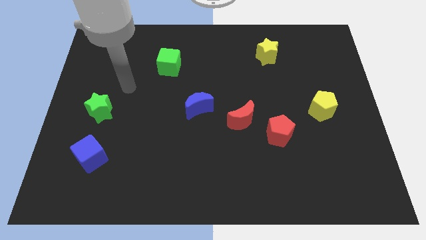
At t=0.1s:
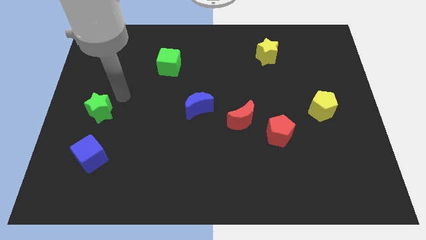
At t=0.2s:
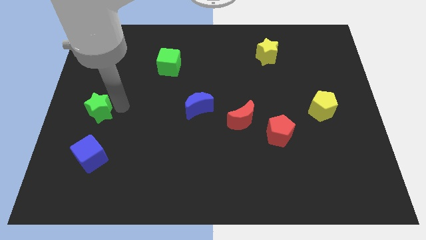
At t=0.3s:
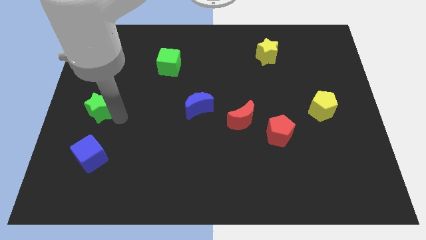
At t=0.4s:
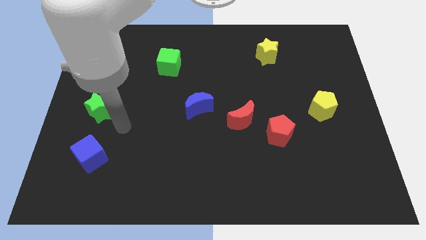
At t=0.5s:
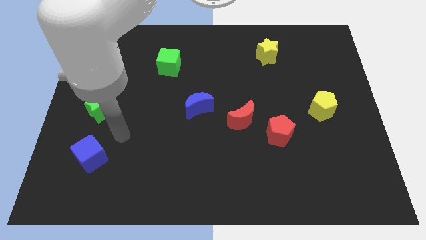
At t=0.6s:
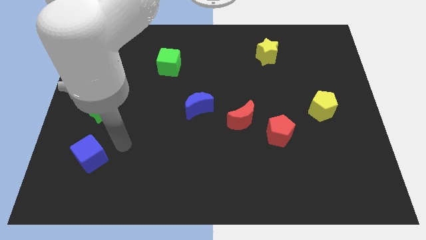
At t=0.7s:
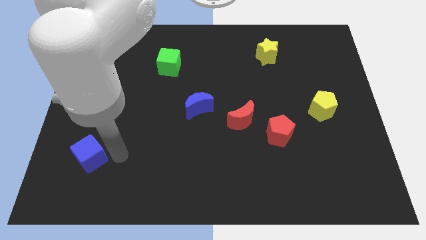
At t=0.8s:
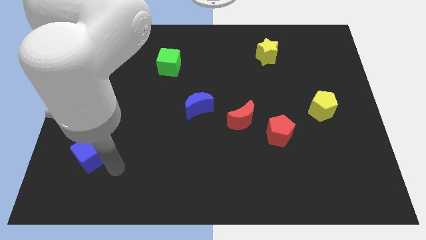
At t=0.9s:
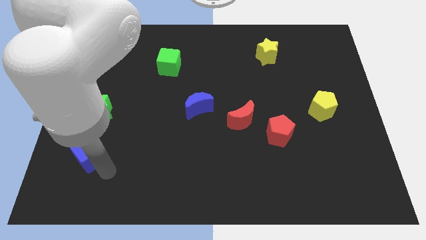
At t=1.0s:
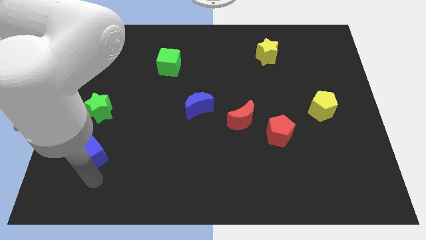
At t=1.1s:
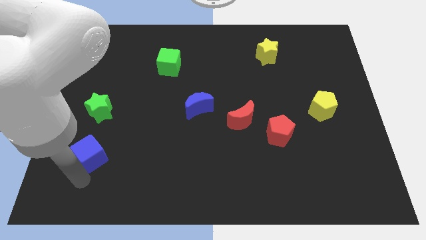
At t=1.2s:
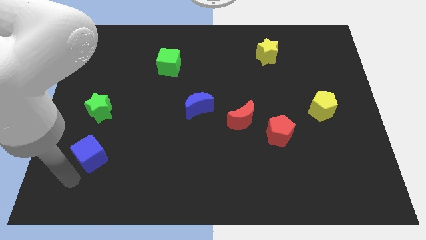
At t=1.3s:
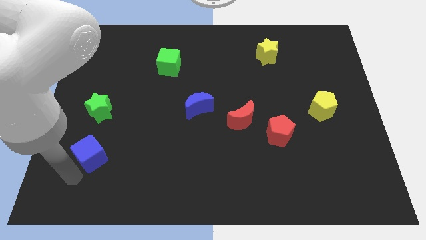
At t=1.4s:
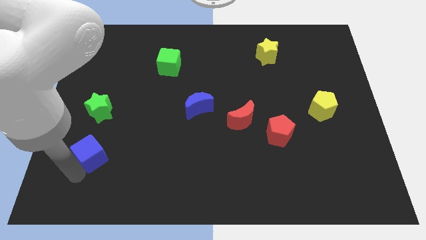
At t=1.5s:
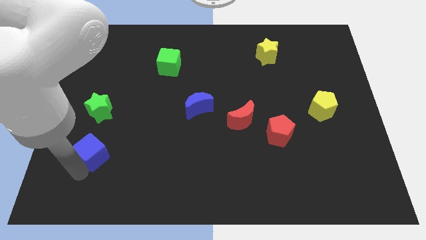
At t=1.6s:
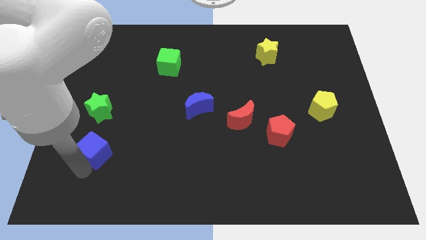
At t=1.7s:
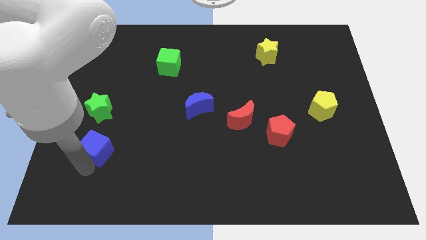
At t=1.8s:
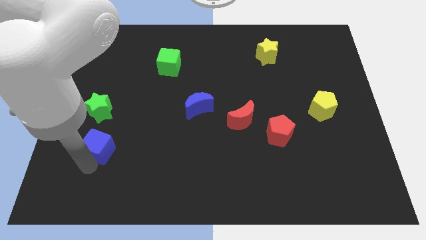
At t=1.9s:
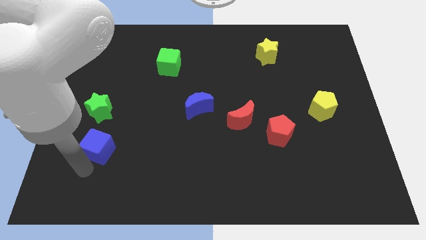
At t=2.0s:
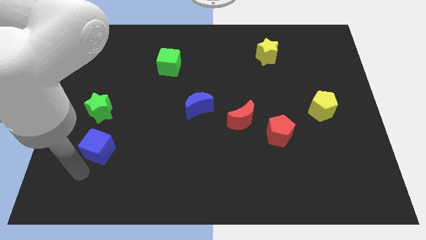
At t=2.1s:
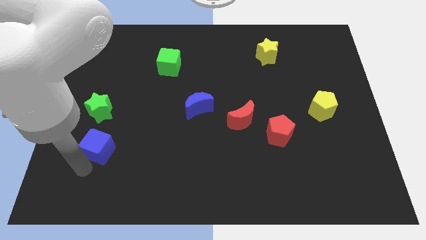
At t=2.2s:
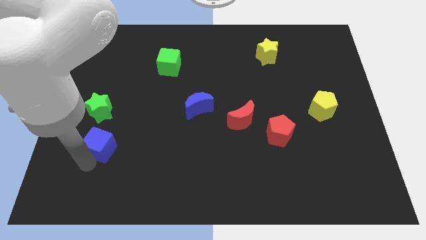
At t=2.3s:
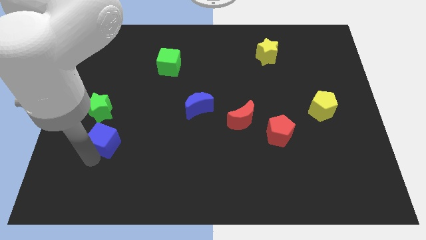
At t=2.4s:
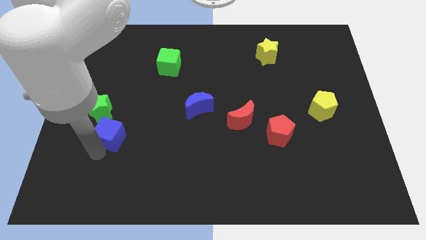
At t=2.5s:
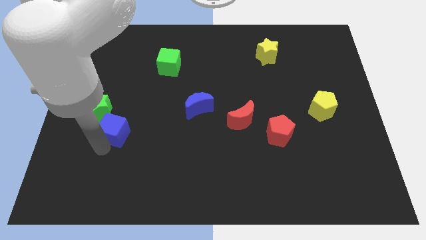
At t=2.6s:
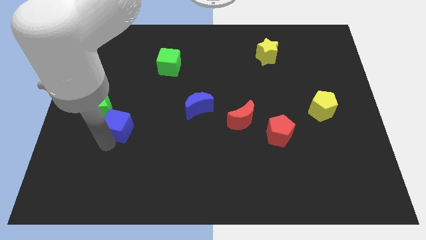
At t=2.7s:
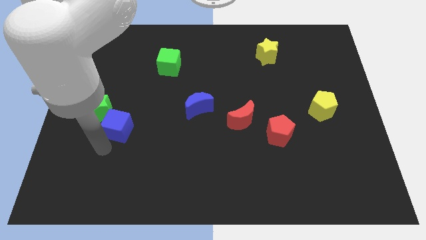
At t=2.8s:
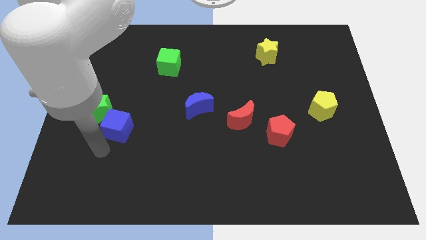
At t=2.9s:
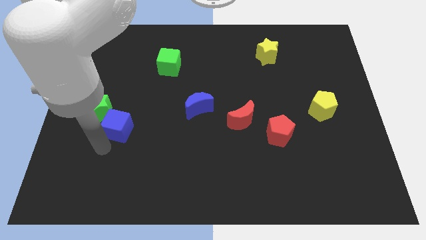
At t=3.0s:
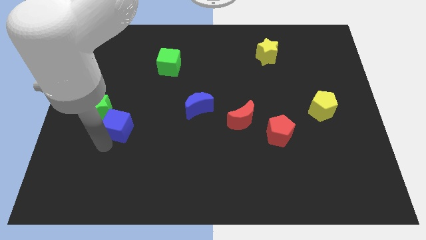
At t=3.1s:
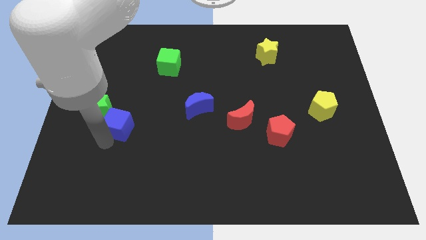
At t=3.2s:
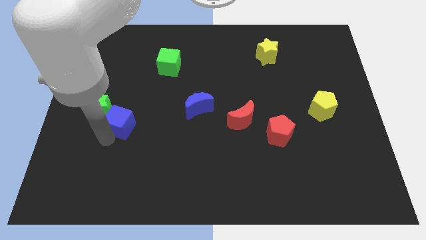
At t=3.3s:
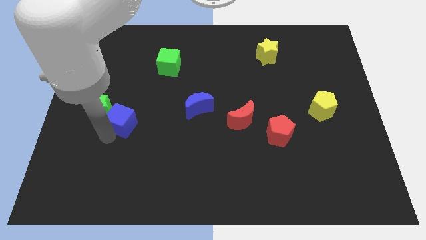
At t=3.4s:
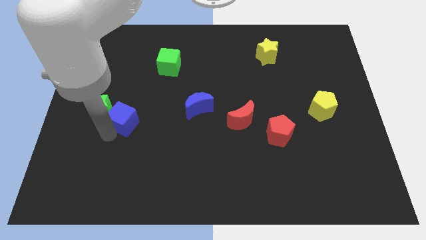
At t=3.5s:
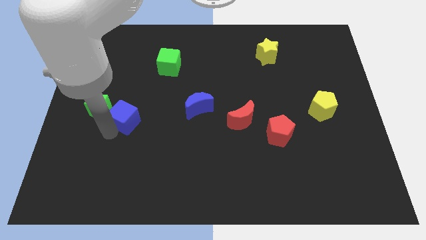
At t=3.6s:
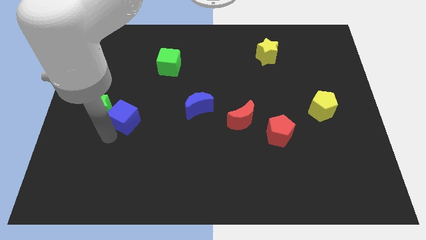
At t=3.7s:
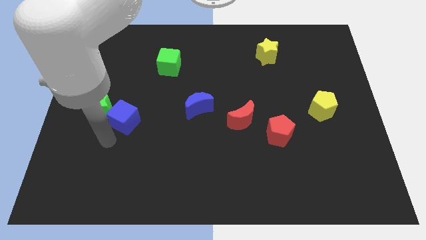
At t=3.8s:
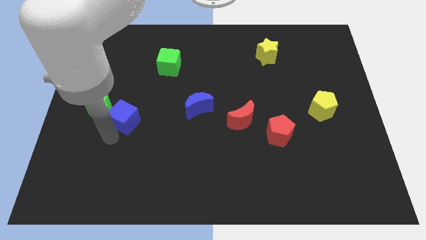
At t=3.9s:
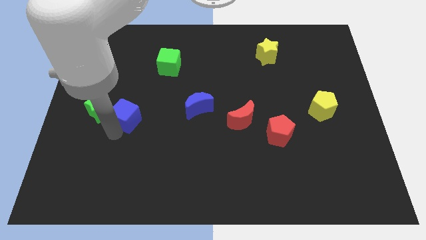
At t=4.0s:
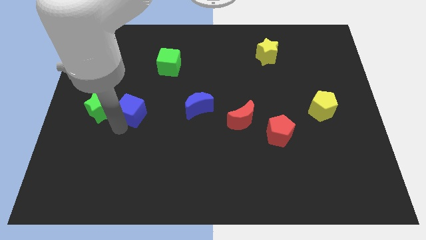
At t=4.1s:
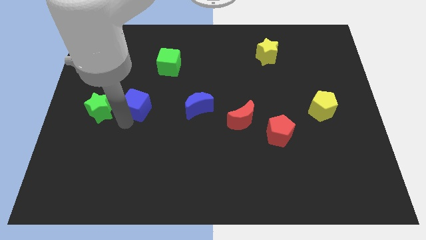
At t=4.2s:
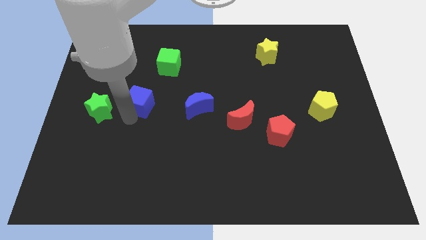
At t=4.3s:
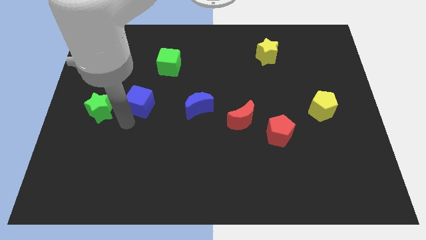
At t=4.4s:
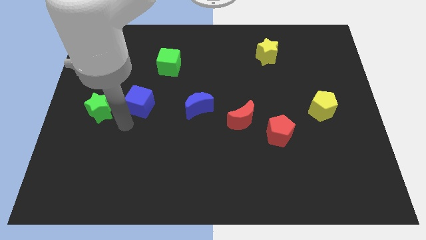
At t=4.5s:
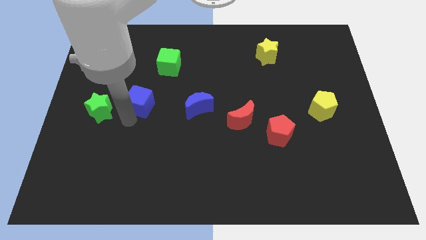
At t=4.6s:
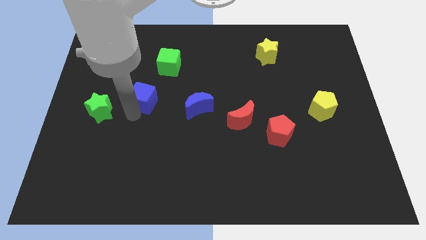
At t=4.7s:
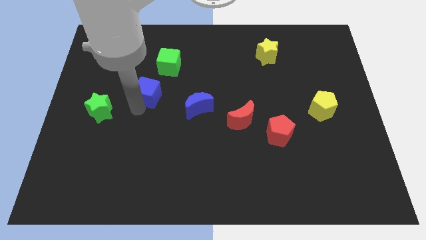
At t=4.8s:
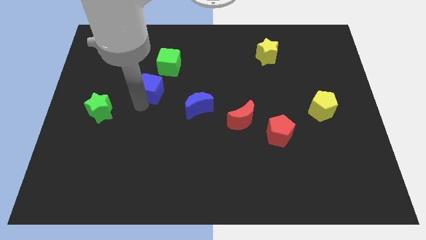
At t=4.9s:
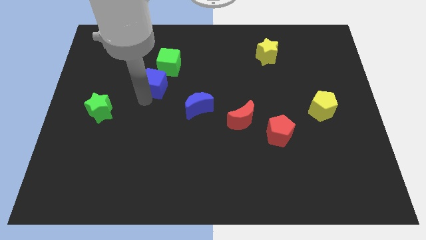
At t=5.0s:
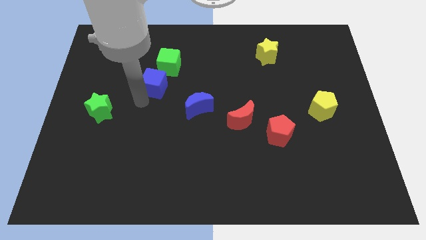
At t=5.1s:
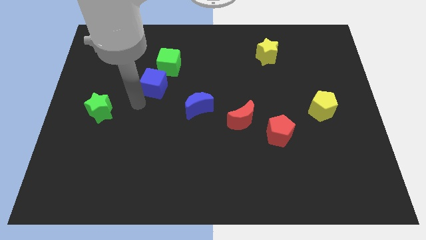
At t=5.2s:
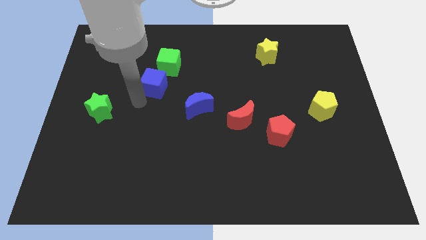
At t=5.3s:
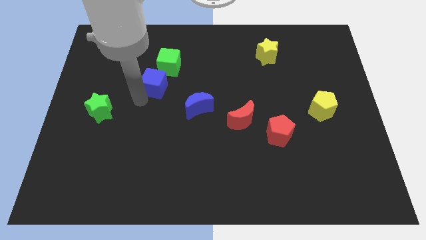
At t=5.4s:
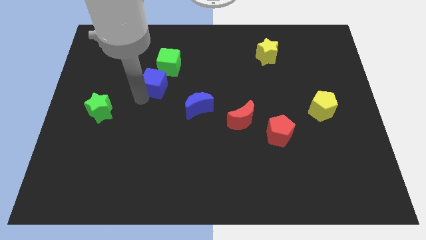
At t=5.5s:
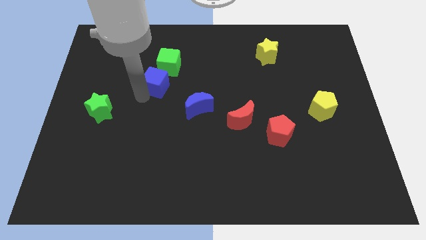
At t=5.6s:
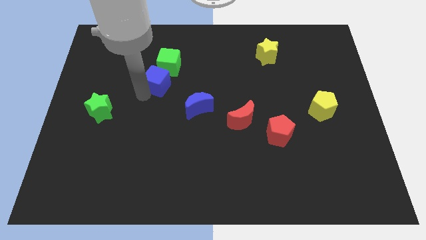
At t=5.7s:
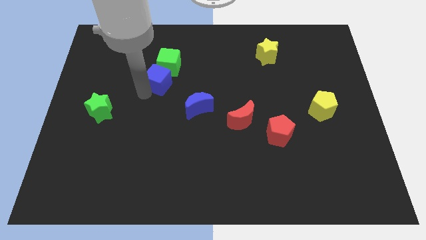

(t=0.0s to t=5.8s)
move the blue cube towards the green cube

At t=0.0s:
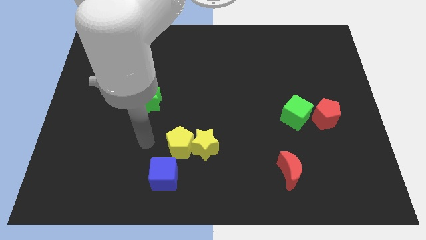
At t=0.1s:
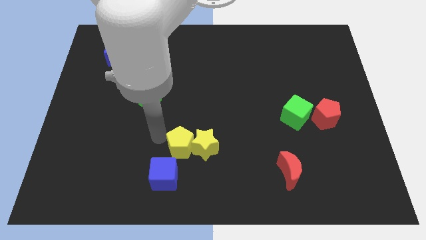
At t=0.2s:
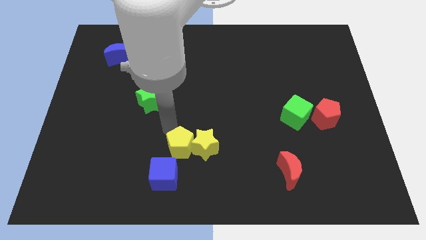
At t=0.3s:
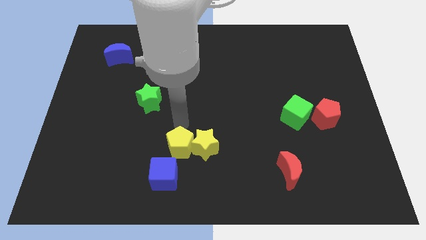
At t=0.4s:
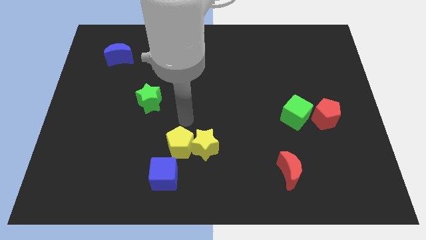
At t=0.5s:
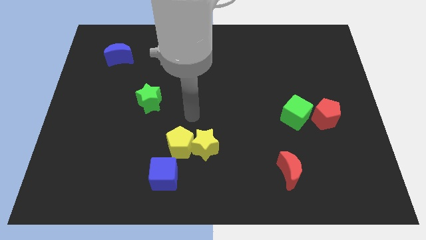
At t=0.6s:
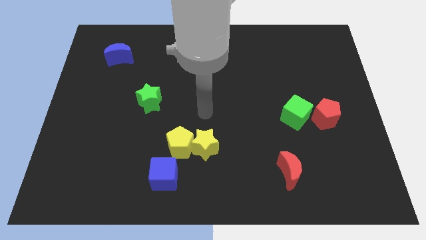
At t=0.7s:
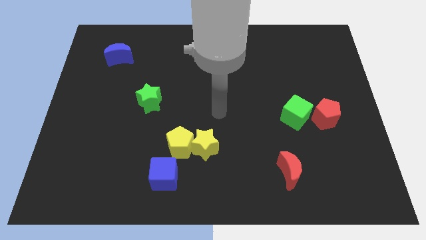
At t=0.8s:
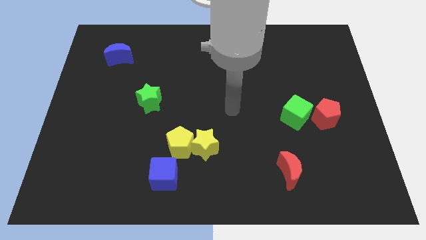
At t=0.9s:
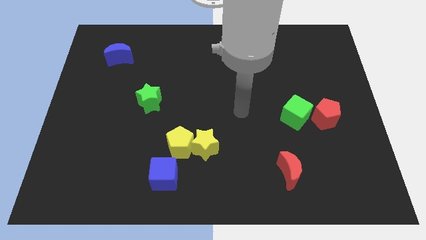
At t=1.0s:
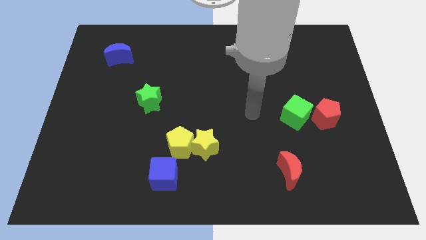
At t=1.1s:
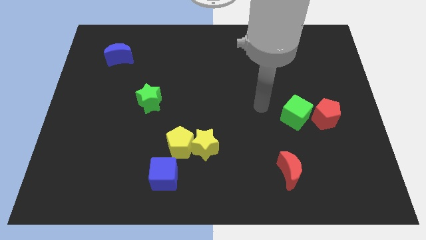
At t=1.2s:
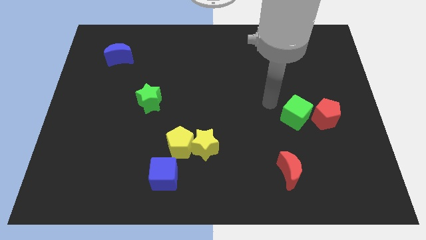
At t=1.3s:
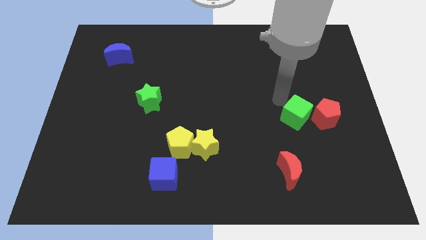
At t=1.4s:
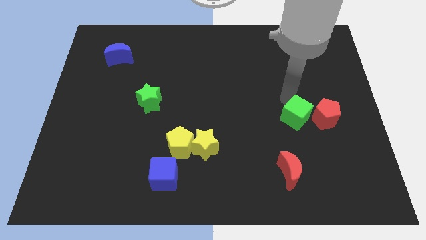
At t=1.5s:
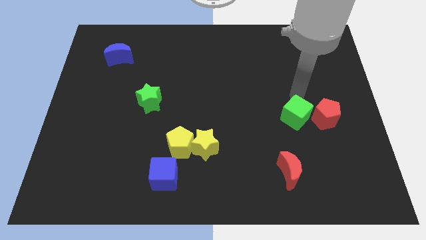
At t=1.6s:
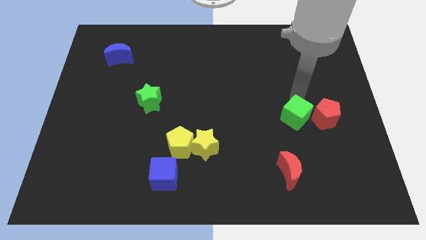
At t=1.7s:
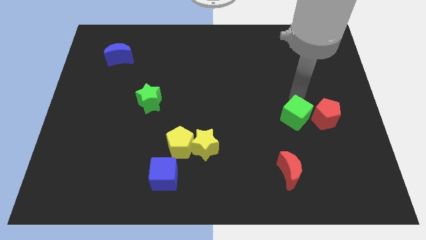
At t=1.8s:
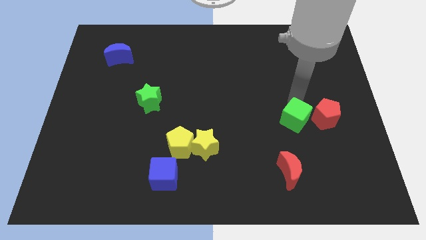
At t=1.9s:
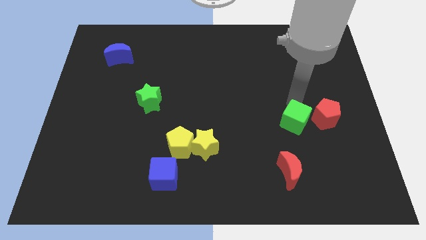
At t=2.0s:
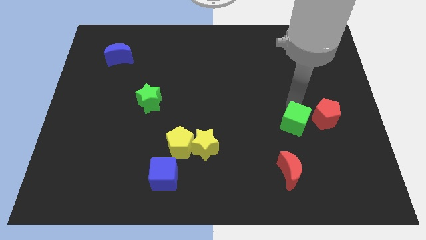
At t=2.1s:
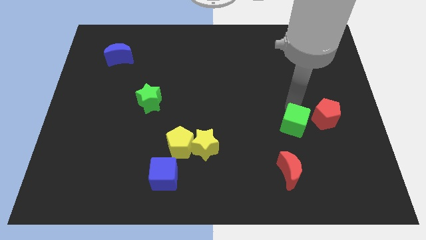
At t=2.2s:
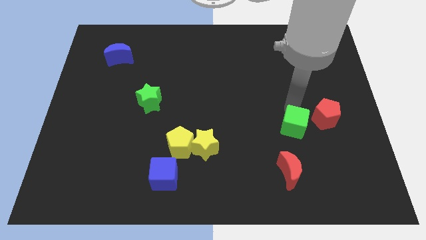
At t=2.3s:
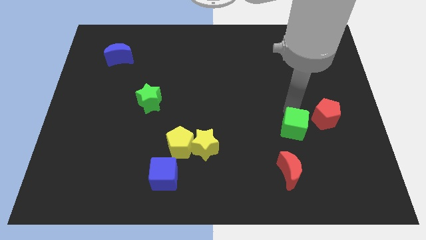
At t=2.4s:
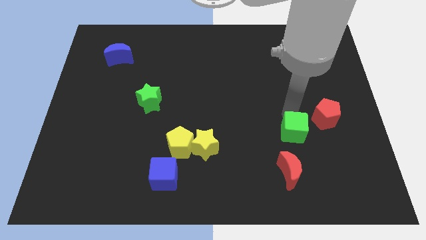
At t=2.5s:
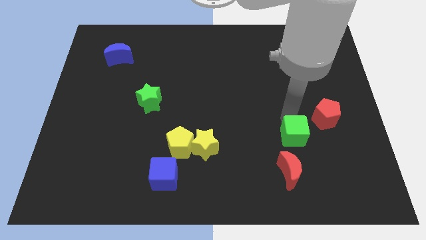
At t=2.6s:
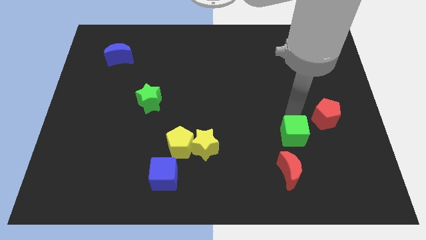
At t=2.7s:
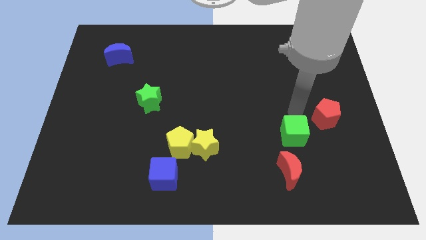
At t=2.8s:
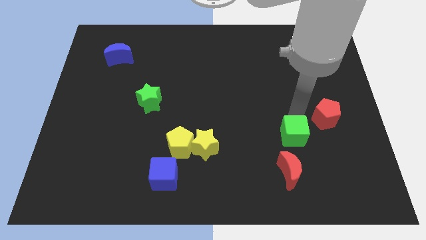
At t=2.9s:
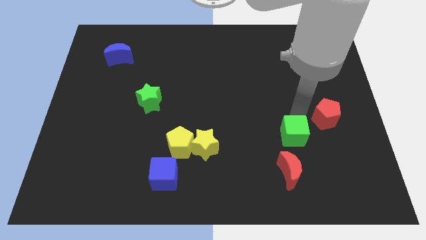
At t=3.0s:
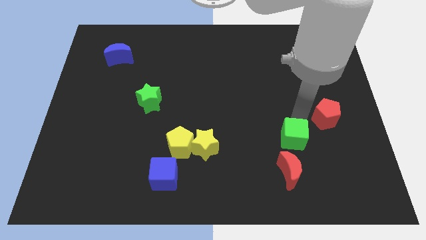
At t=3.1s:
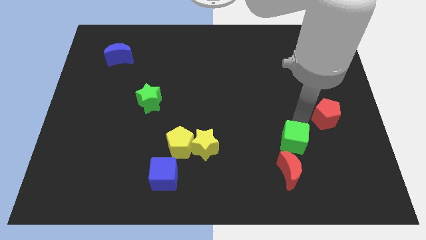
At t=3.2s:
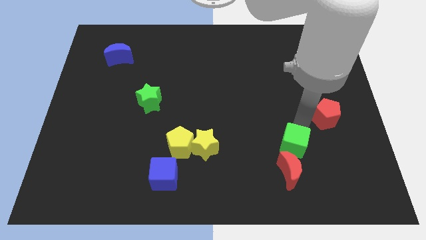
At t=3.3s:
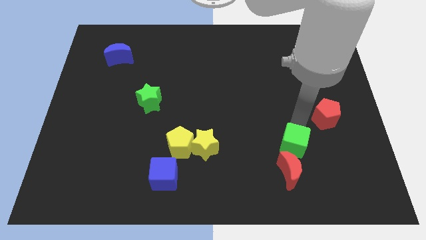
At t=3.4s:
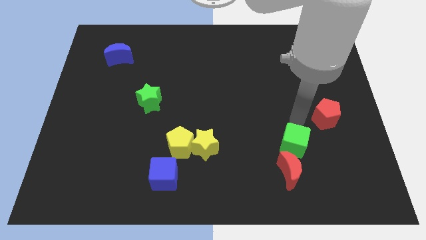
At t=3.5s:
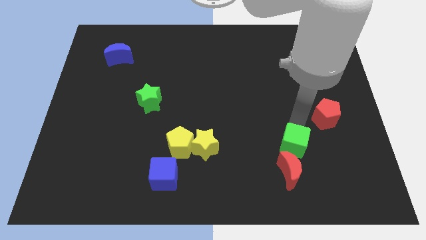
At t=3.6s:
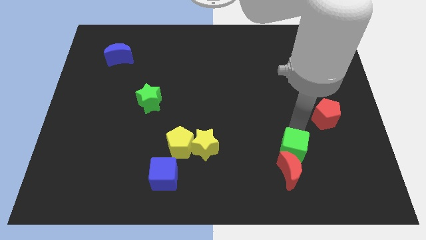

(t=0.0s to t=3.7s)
put the green cube to the red moon
